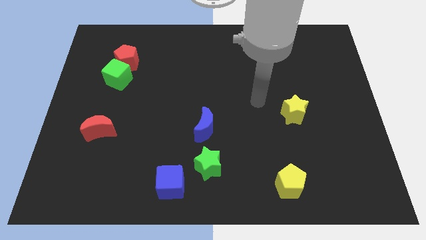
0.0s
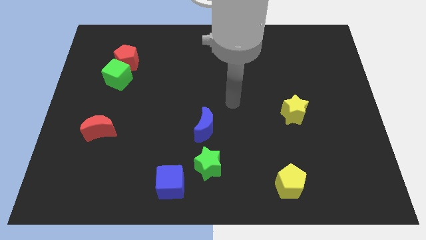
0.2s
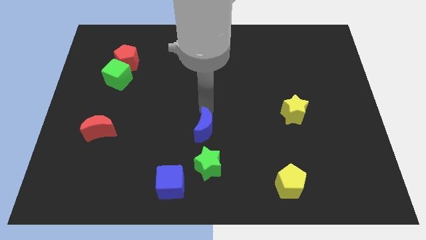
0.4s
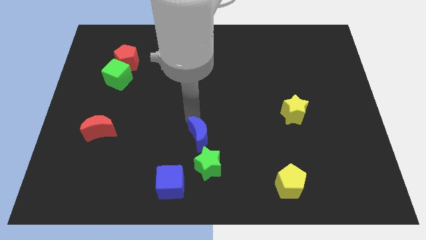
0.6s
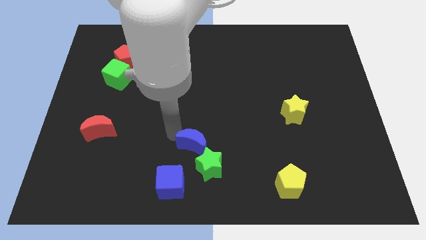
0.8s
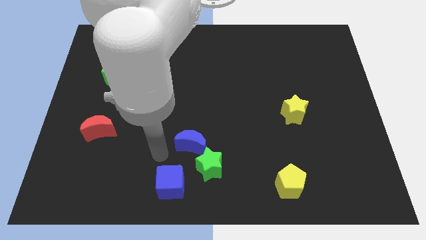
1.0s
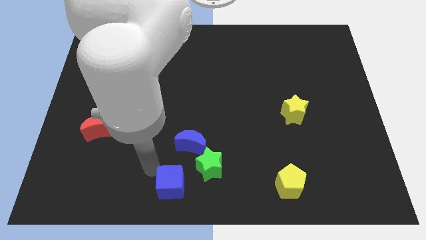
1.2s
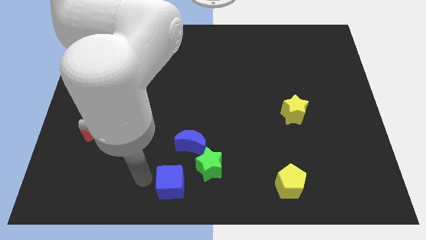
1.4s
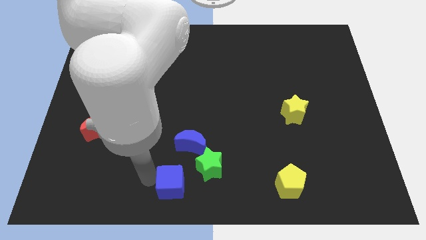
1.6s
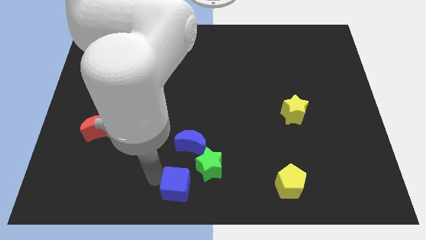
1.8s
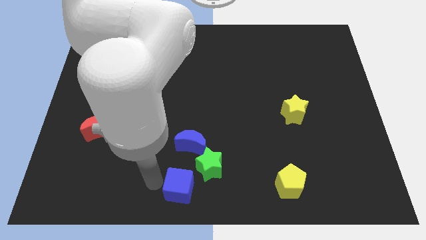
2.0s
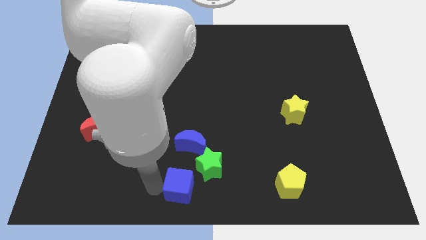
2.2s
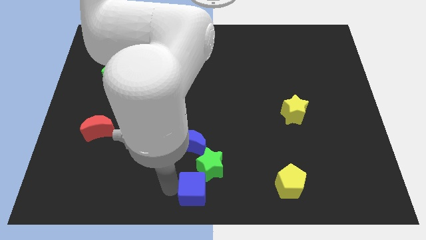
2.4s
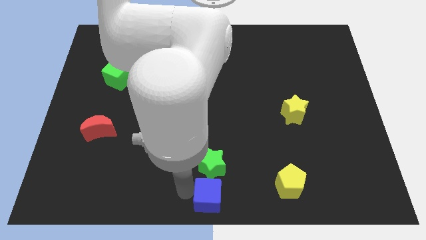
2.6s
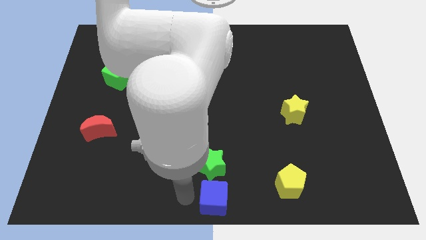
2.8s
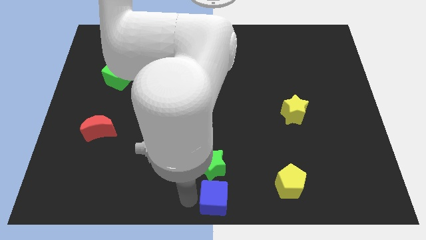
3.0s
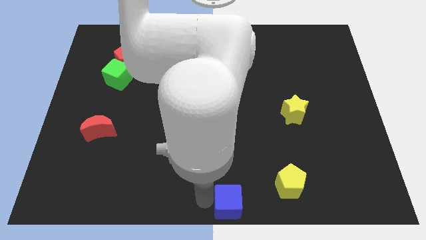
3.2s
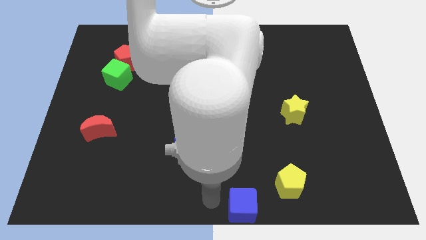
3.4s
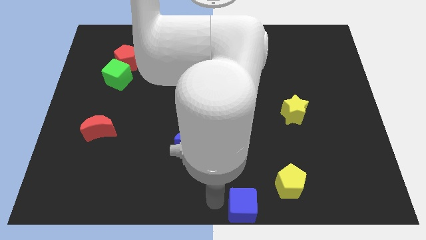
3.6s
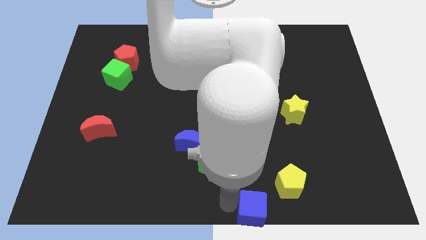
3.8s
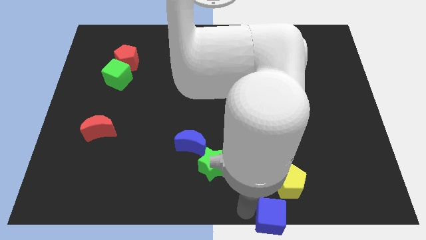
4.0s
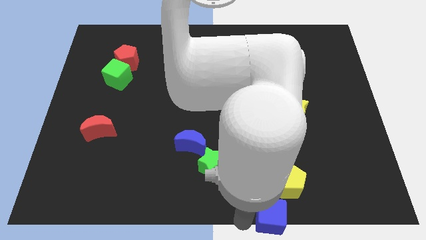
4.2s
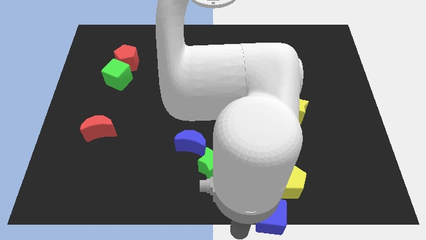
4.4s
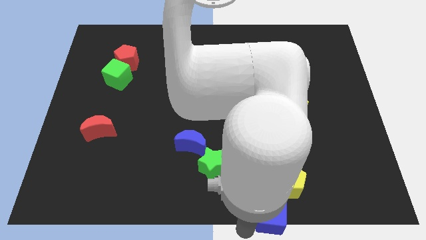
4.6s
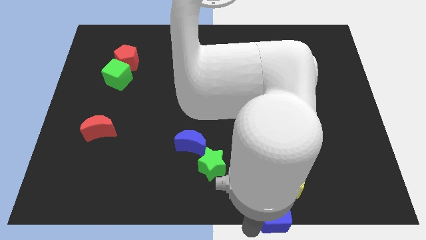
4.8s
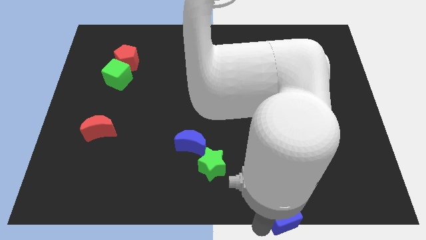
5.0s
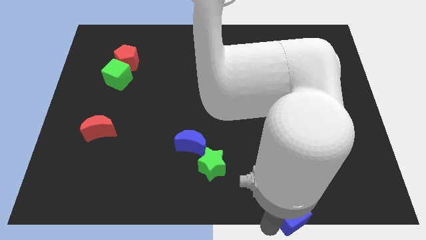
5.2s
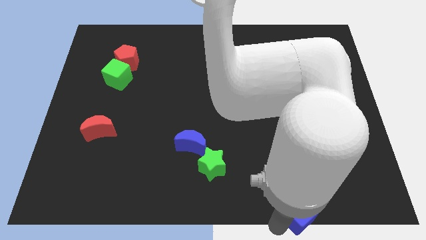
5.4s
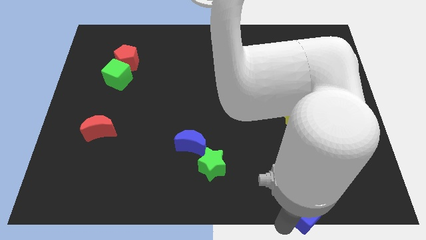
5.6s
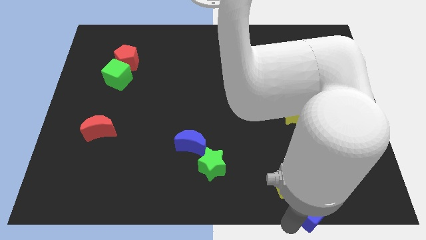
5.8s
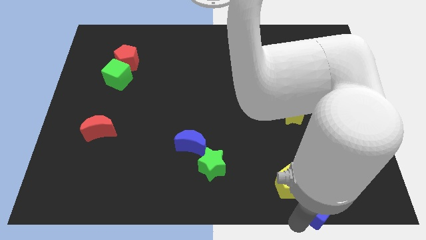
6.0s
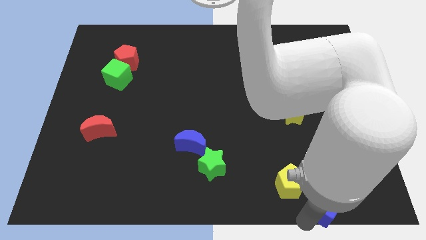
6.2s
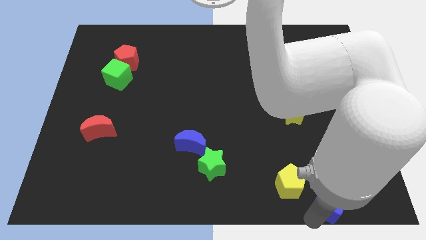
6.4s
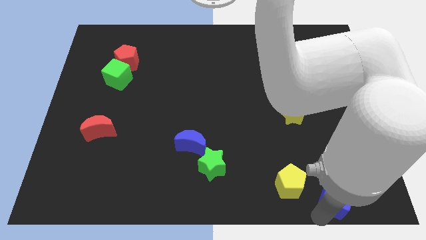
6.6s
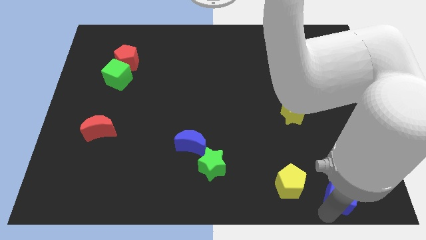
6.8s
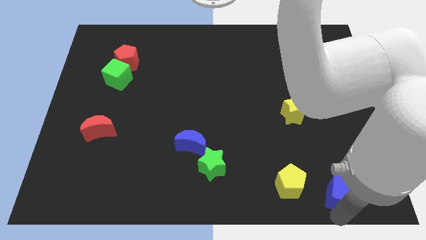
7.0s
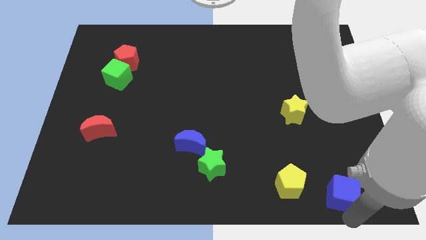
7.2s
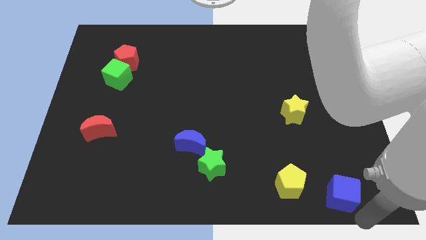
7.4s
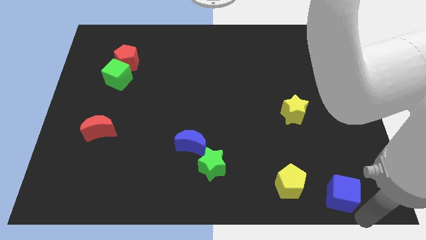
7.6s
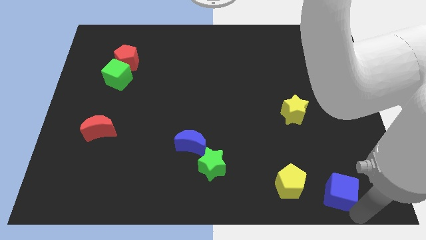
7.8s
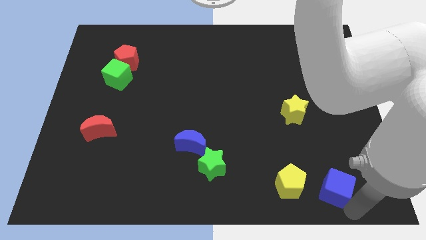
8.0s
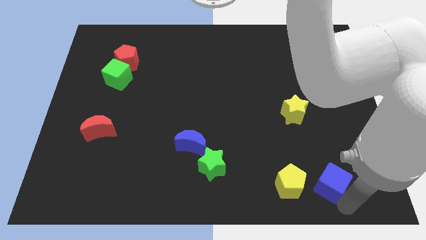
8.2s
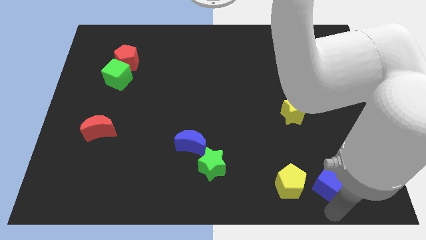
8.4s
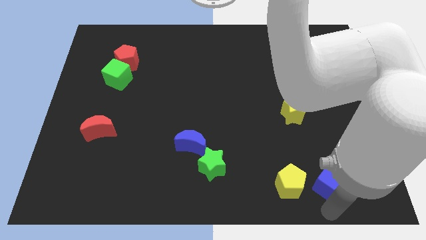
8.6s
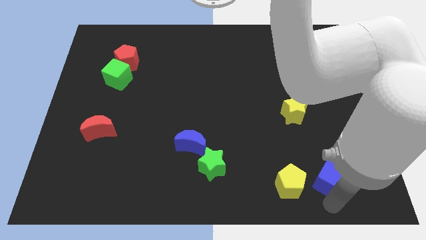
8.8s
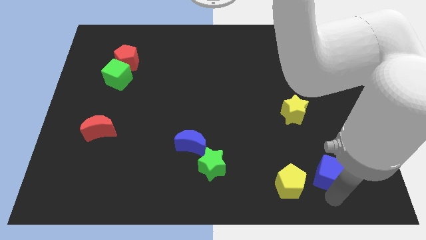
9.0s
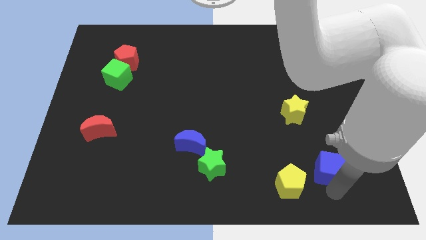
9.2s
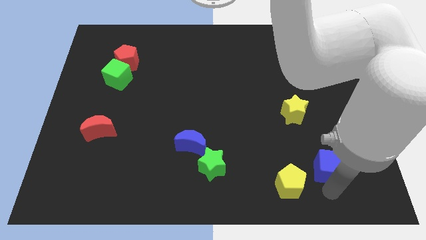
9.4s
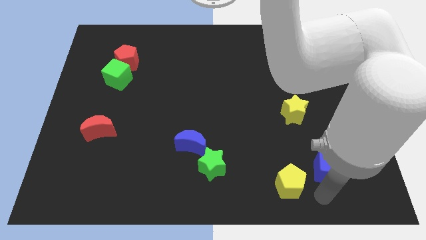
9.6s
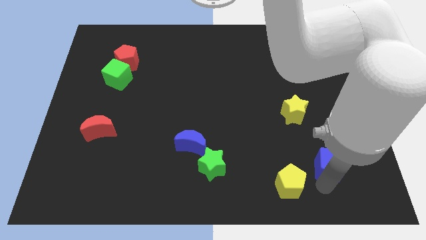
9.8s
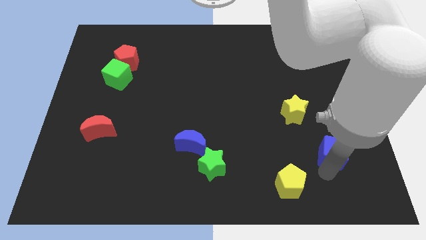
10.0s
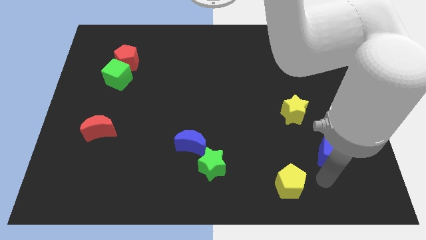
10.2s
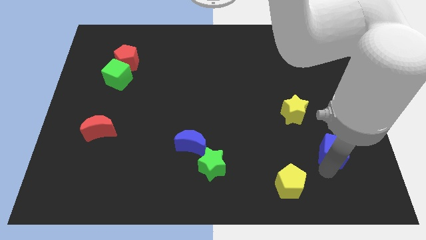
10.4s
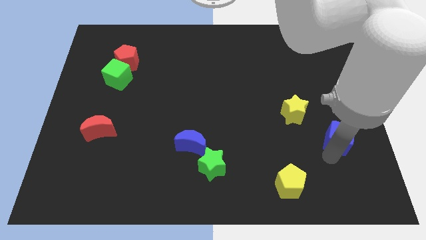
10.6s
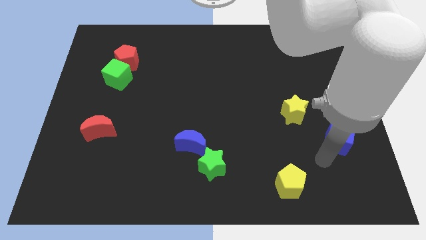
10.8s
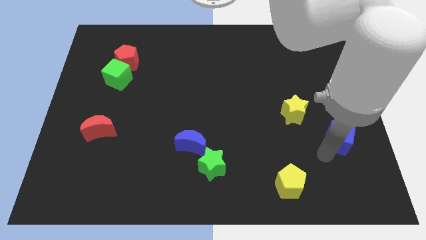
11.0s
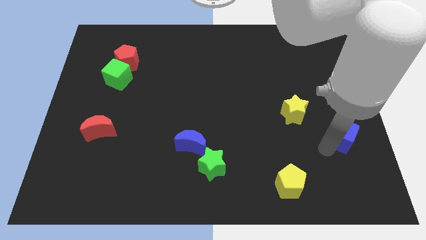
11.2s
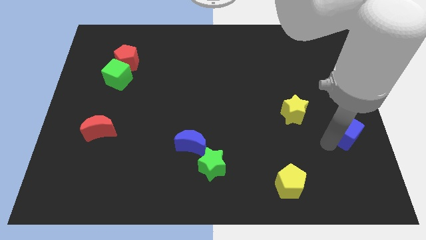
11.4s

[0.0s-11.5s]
move the blue cube to the right side
